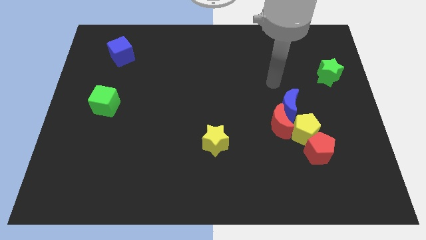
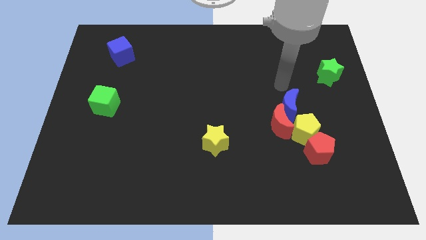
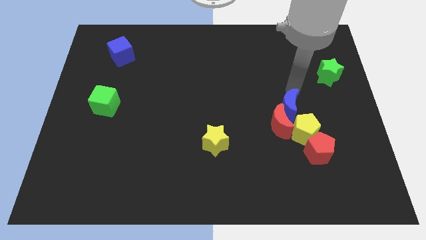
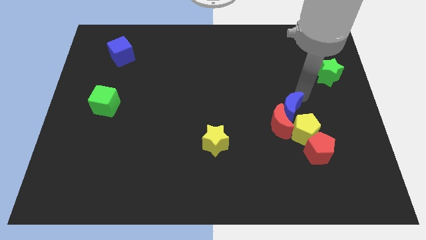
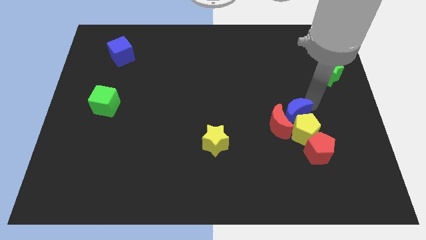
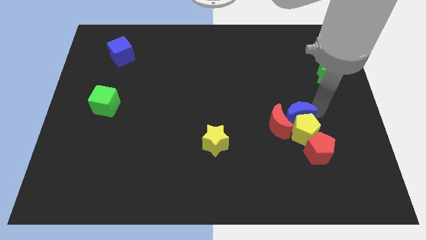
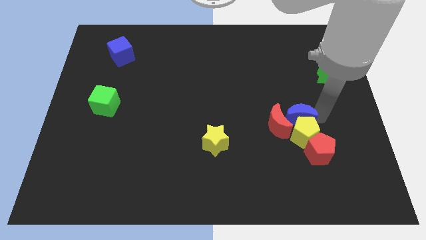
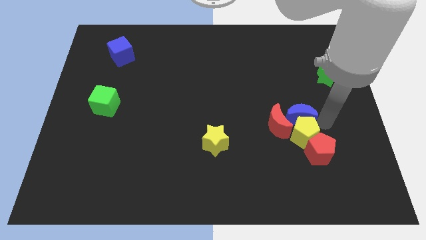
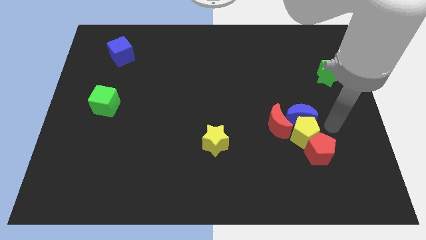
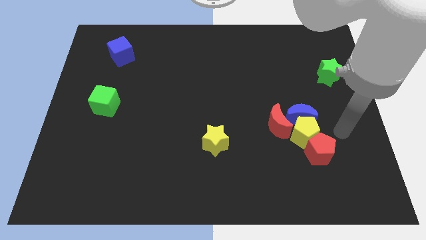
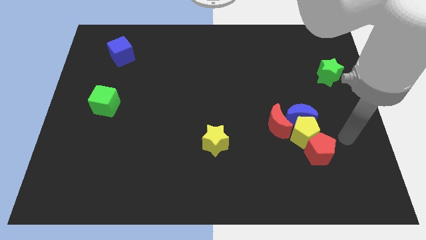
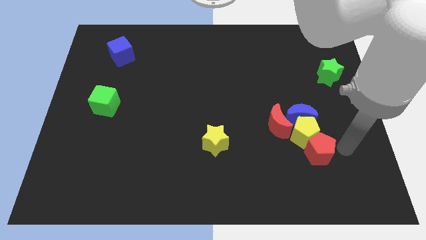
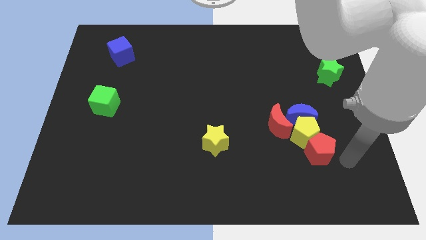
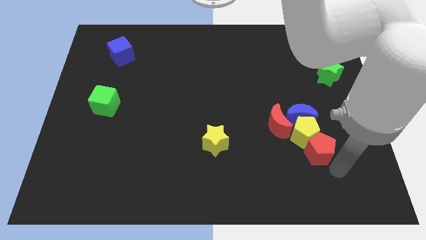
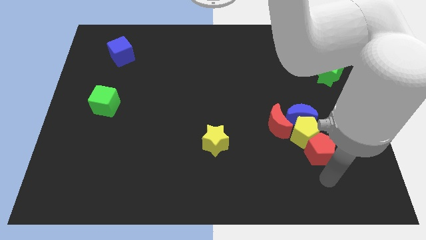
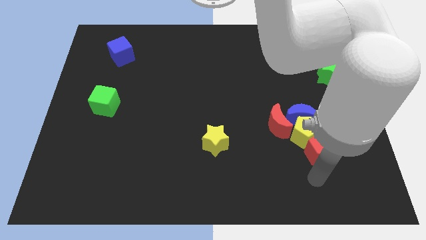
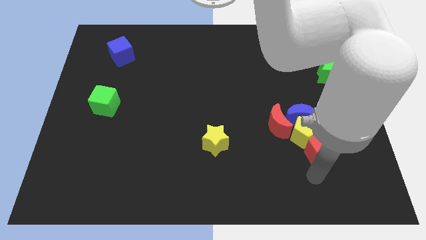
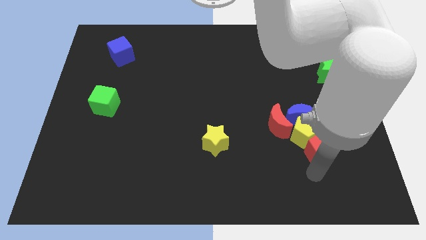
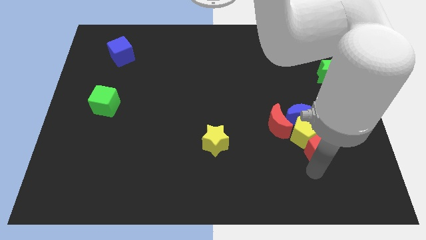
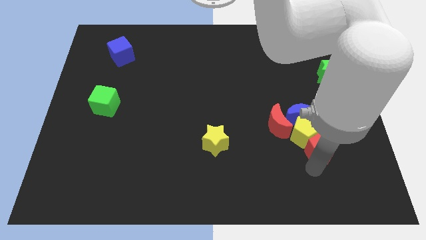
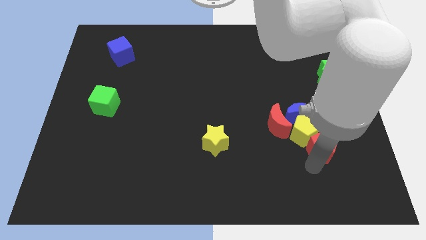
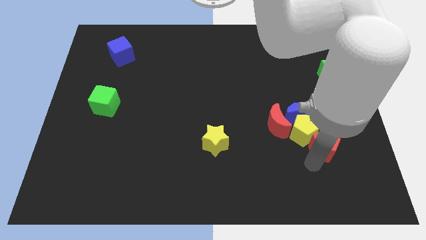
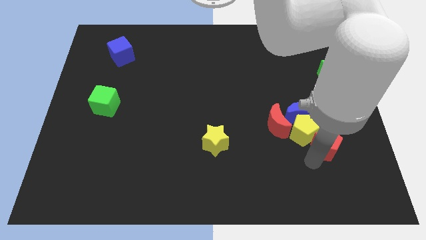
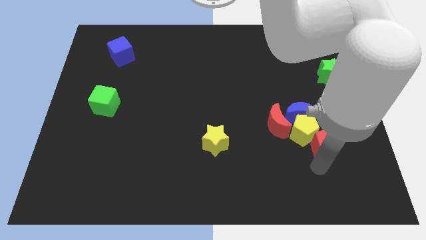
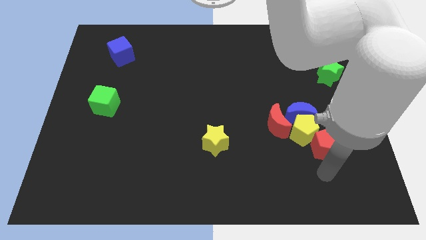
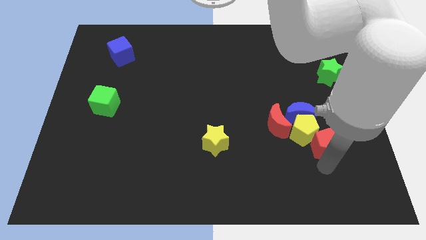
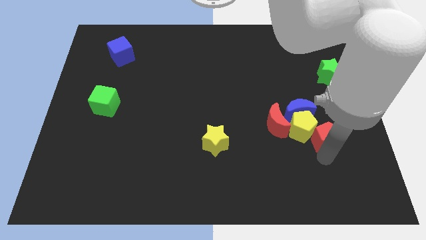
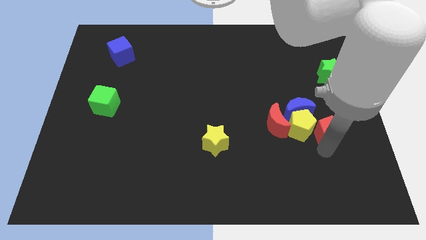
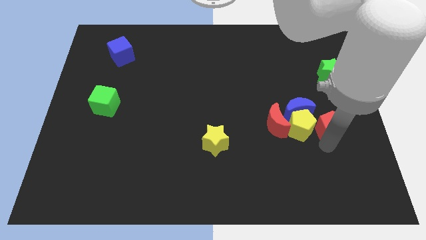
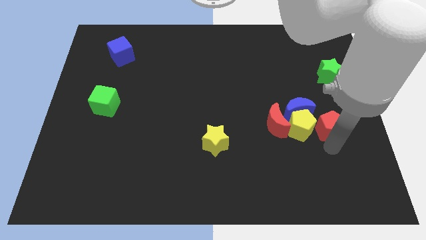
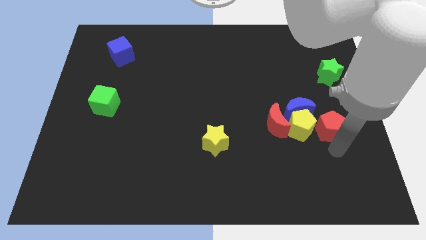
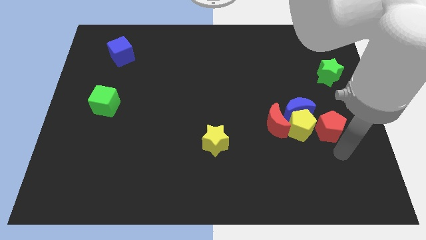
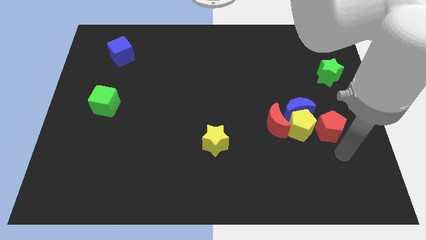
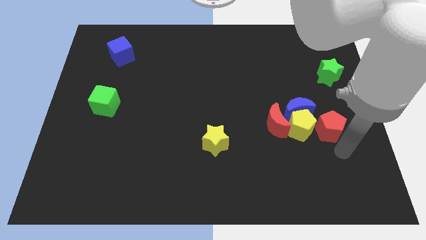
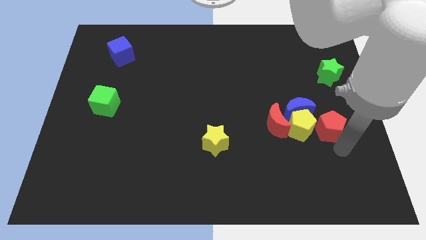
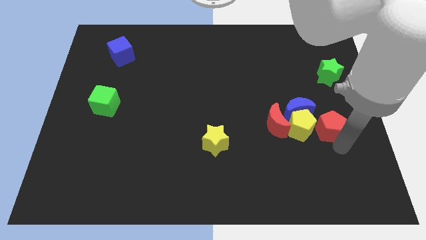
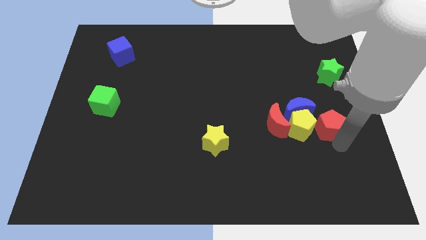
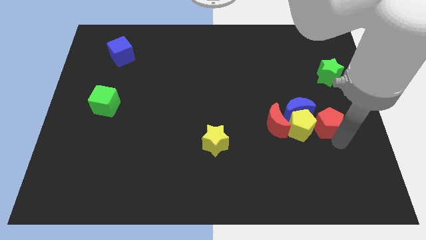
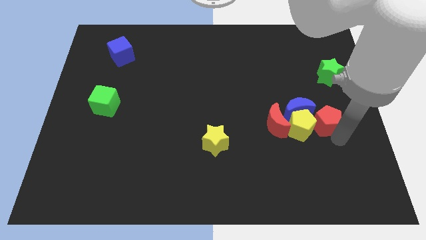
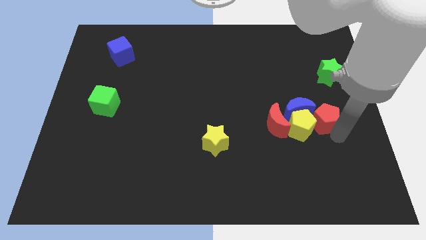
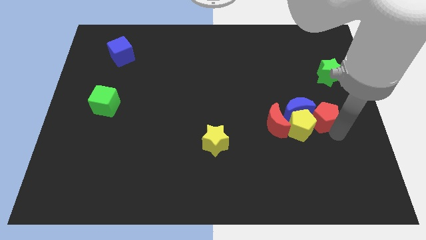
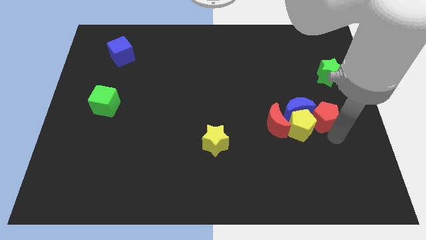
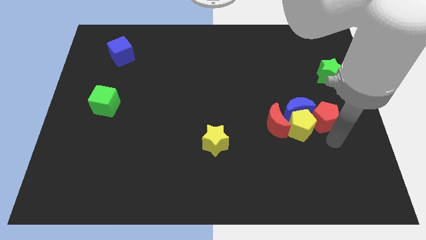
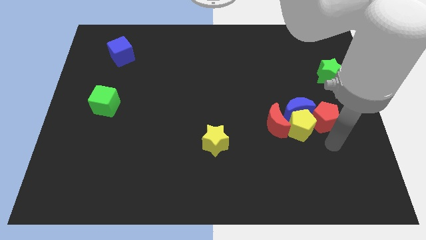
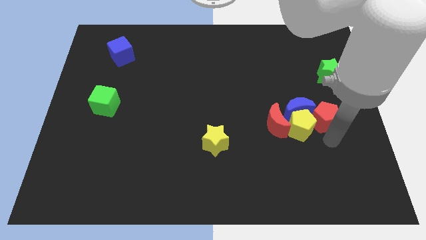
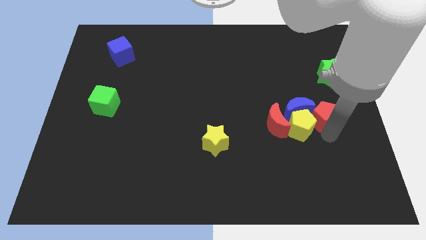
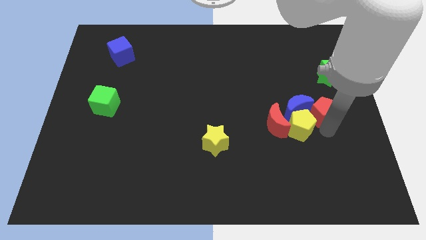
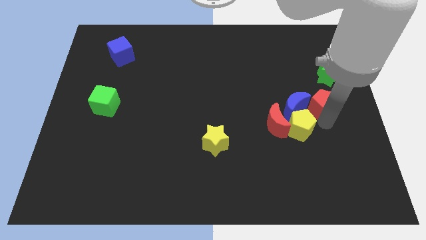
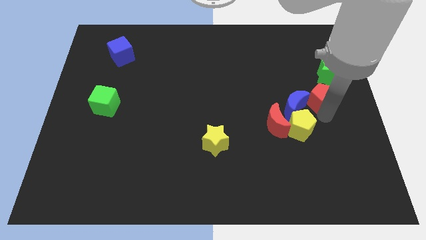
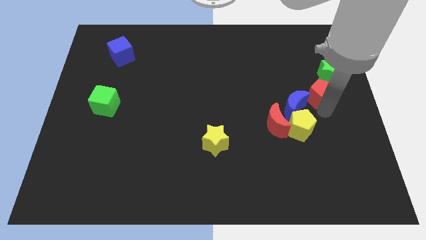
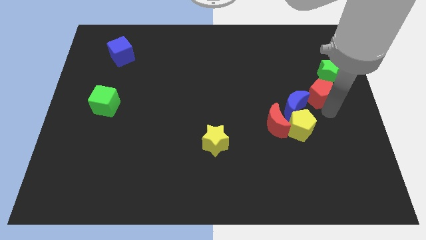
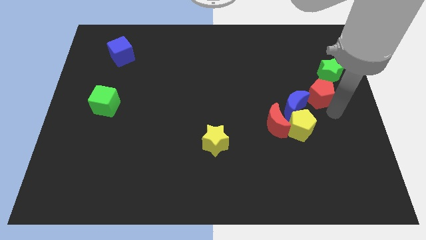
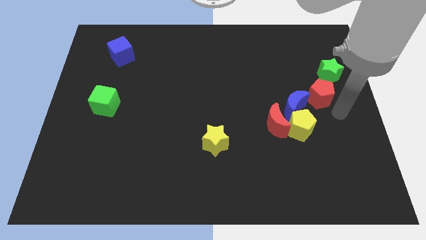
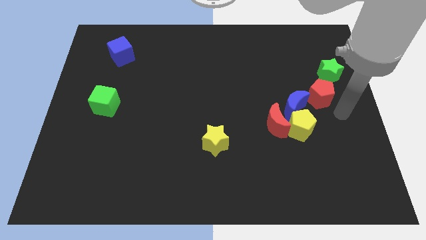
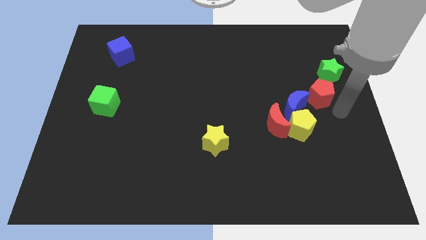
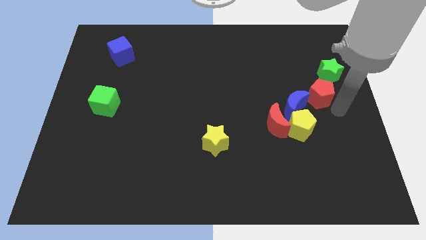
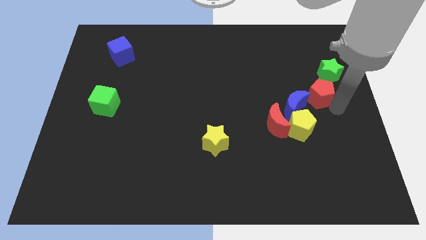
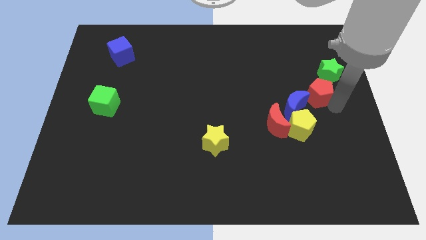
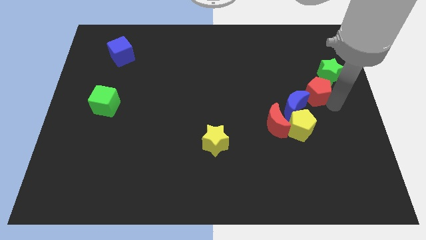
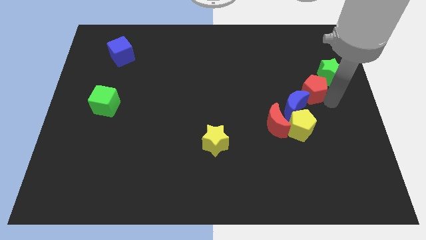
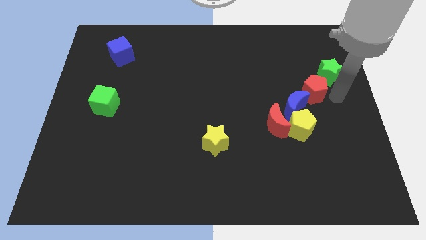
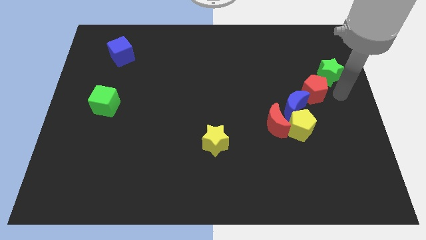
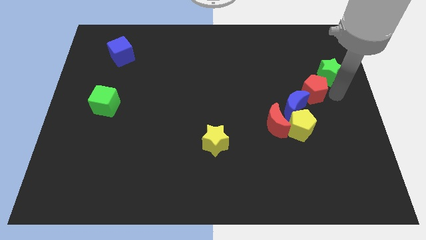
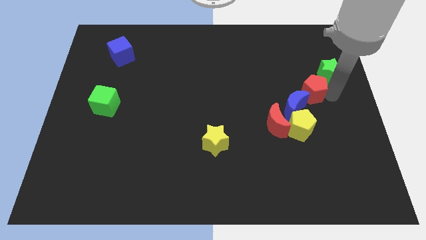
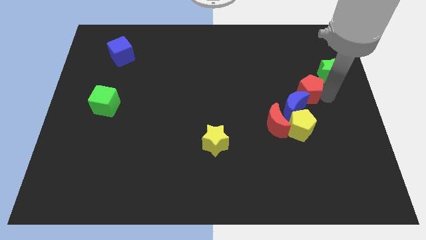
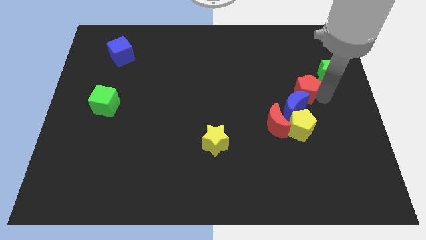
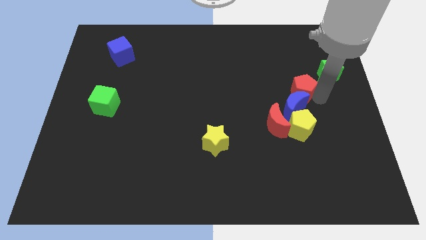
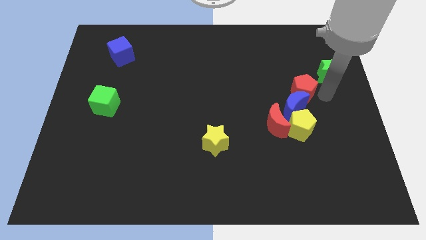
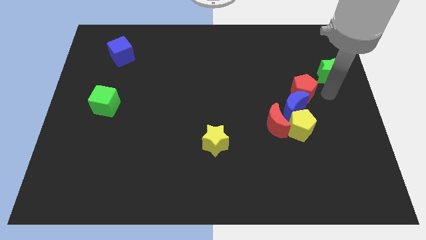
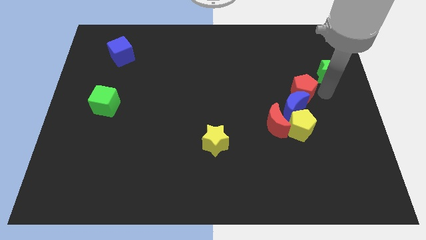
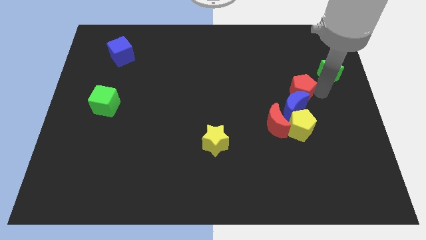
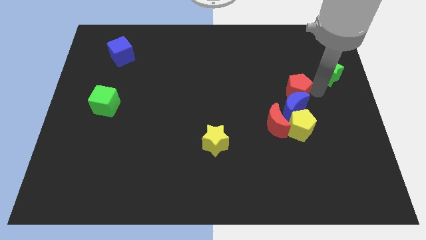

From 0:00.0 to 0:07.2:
move the red pentagon diagonally up and to the left of the blue moon
